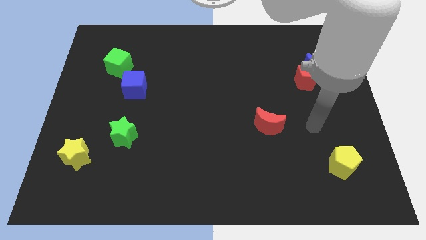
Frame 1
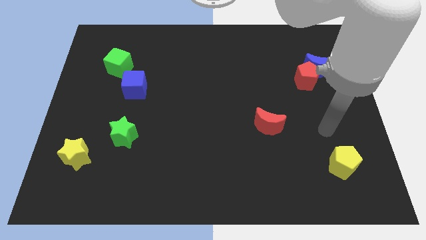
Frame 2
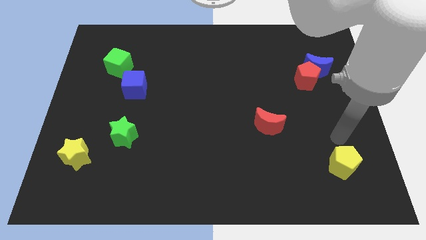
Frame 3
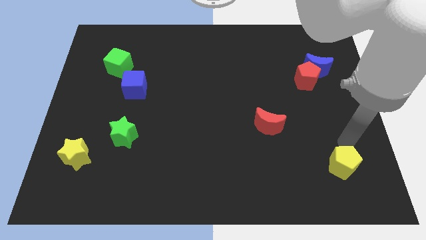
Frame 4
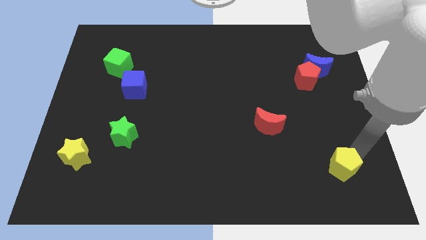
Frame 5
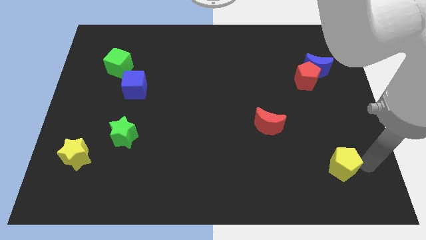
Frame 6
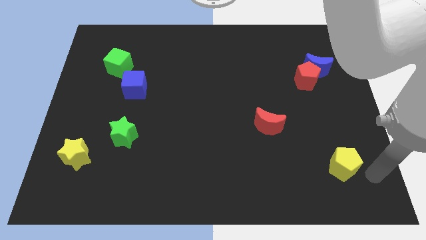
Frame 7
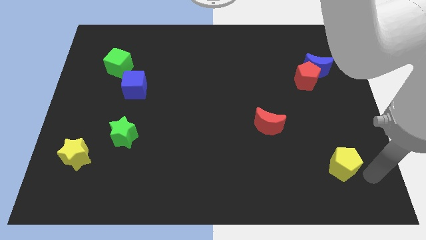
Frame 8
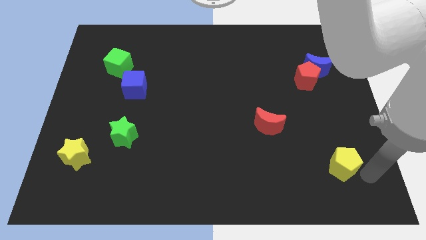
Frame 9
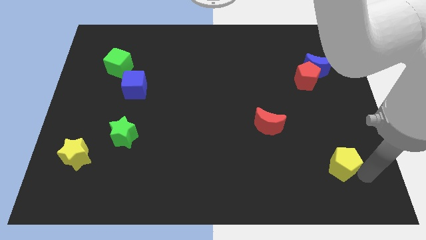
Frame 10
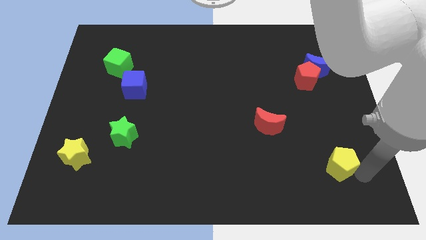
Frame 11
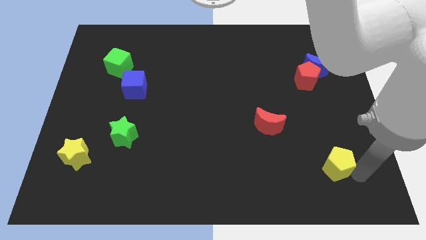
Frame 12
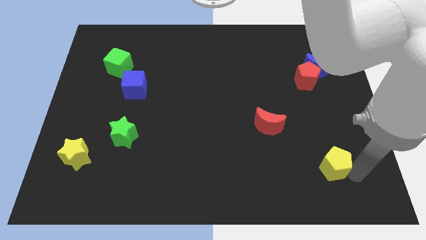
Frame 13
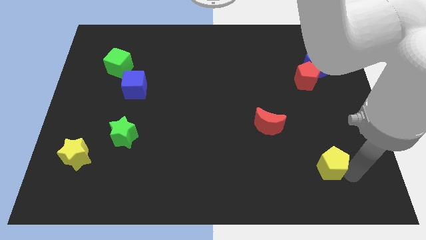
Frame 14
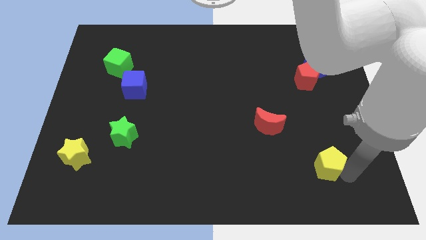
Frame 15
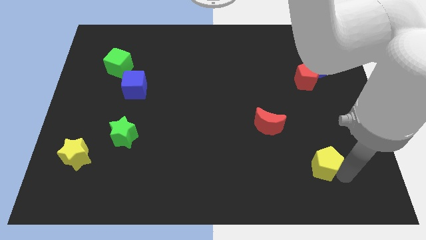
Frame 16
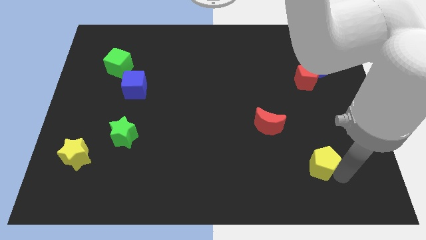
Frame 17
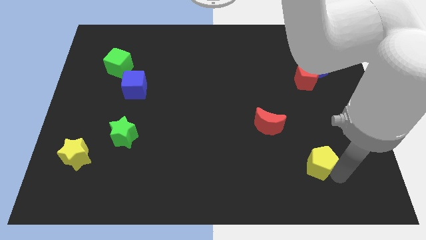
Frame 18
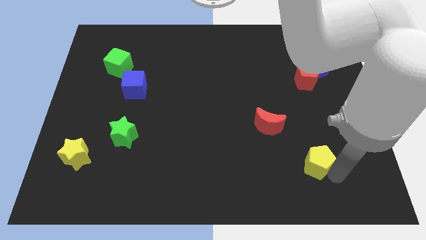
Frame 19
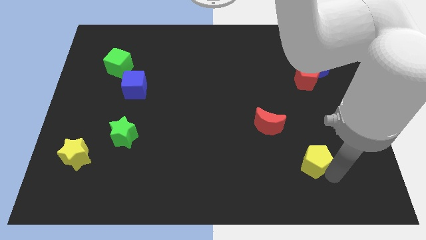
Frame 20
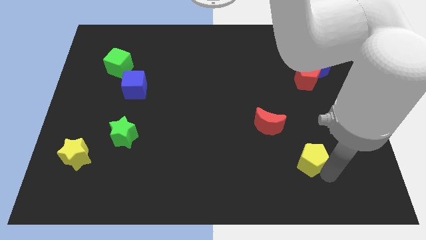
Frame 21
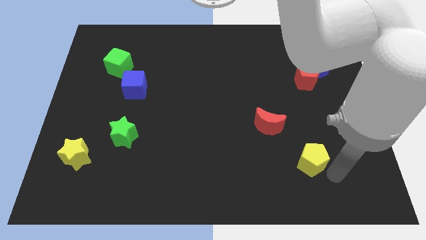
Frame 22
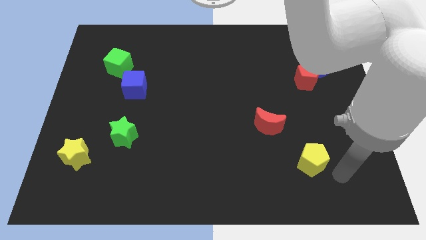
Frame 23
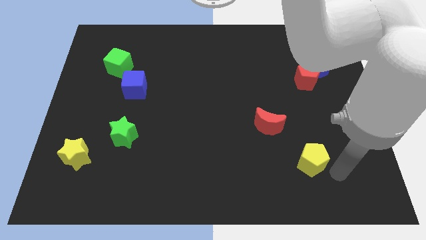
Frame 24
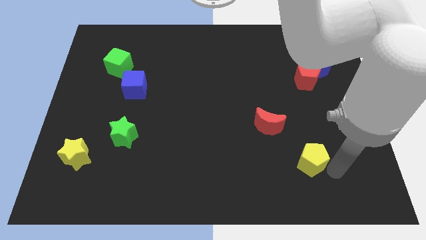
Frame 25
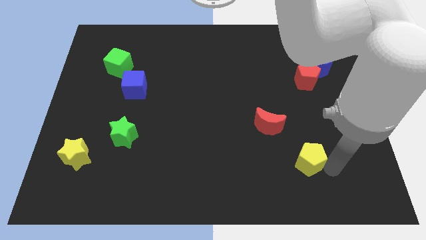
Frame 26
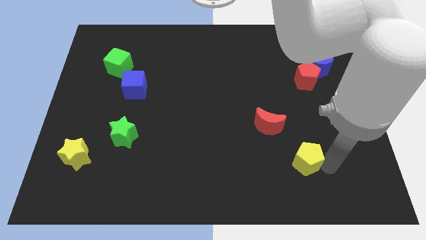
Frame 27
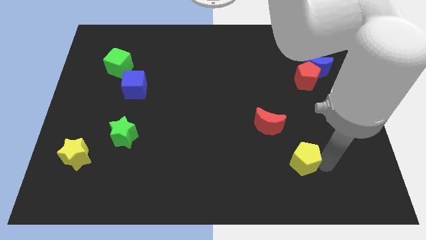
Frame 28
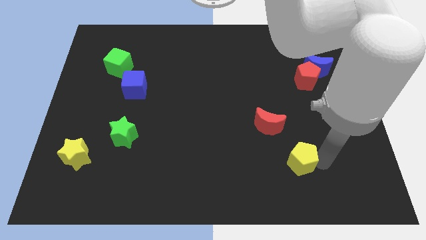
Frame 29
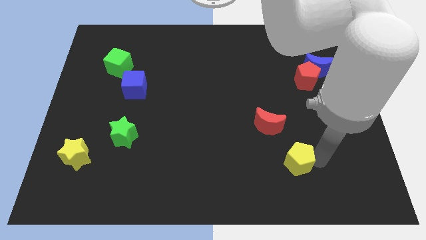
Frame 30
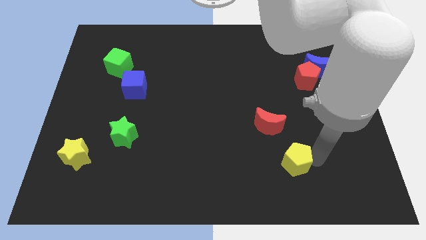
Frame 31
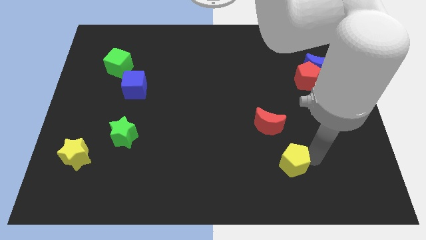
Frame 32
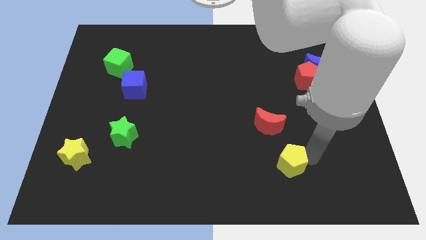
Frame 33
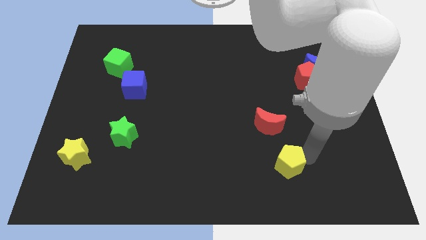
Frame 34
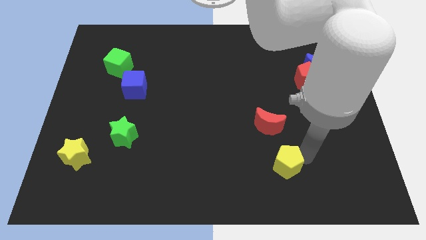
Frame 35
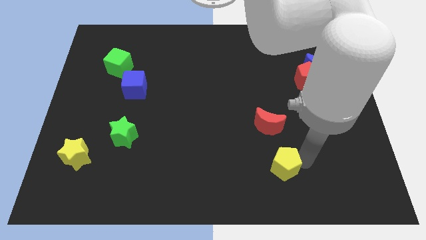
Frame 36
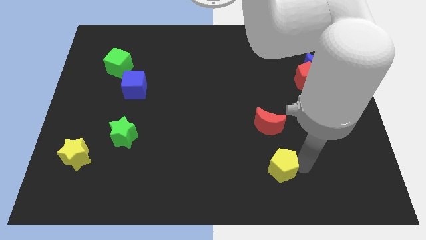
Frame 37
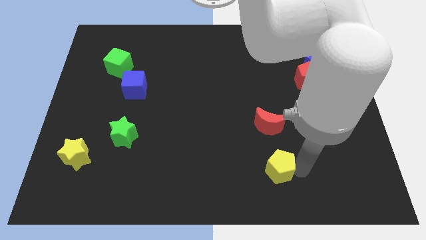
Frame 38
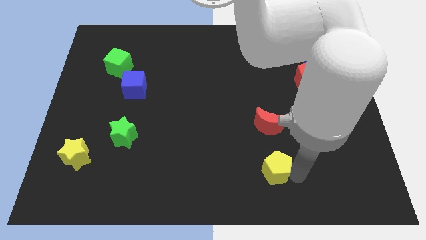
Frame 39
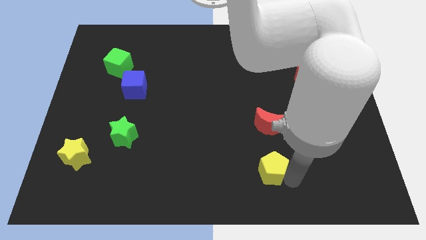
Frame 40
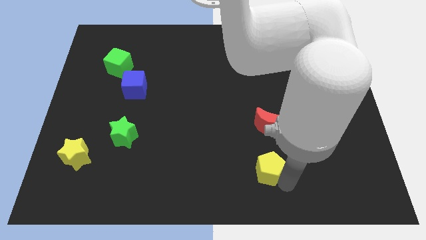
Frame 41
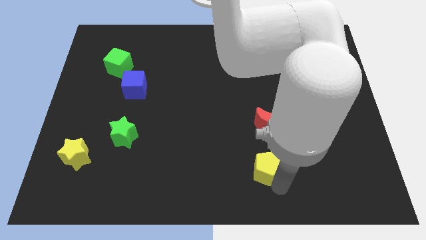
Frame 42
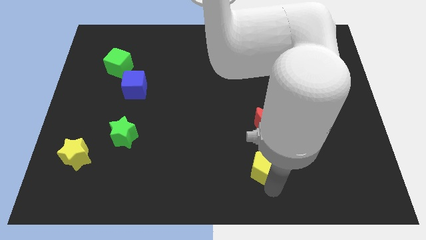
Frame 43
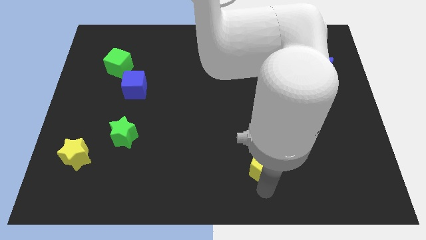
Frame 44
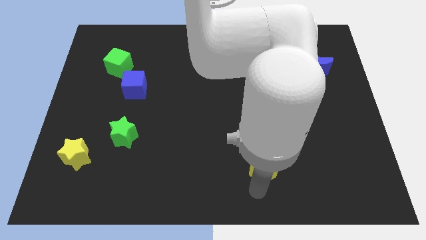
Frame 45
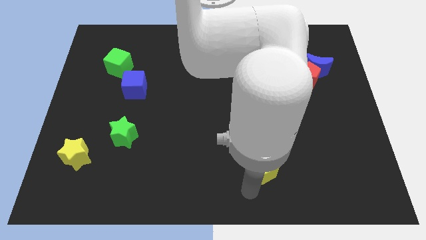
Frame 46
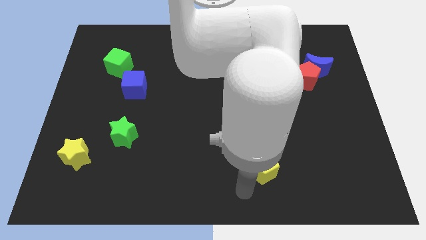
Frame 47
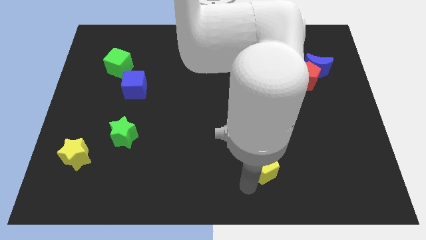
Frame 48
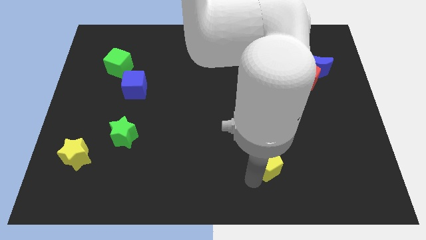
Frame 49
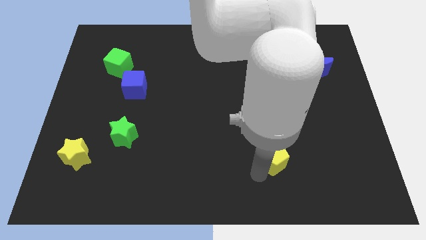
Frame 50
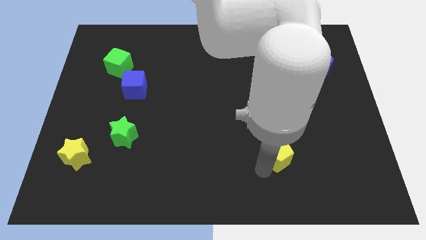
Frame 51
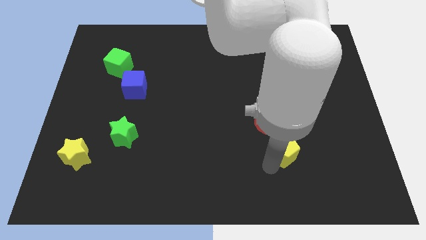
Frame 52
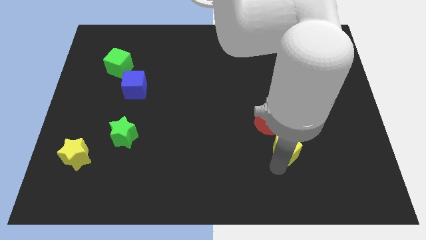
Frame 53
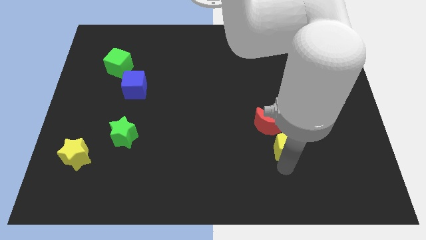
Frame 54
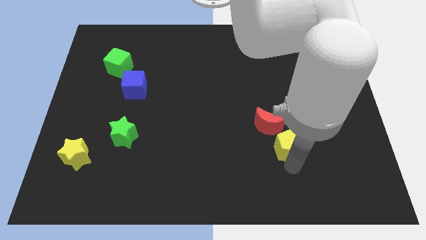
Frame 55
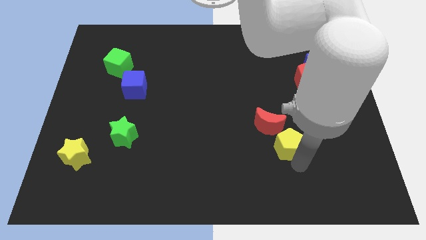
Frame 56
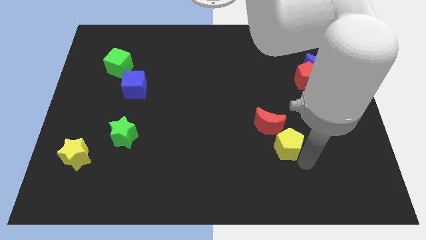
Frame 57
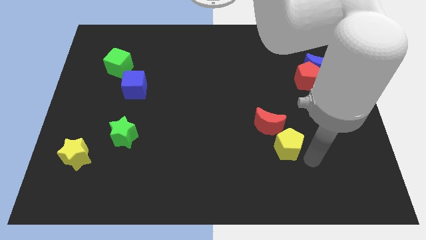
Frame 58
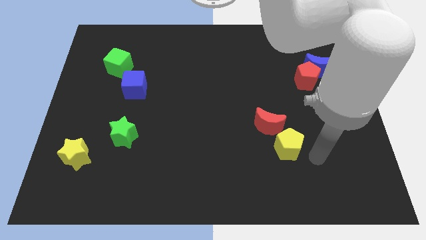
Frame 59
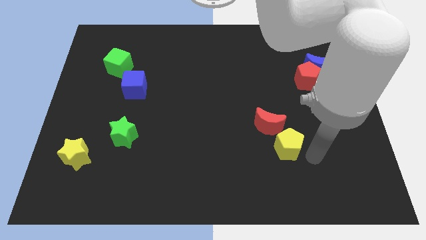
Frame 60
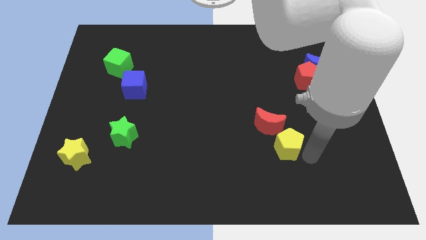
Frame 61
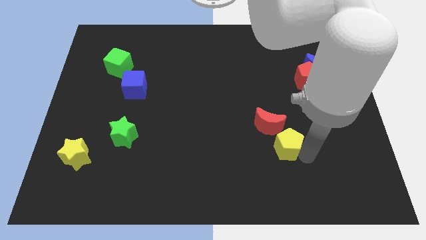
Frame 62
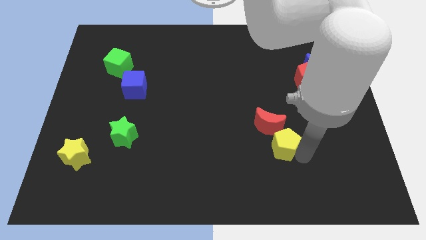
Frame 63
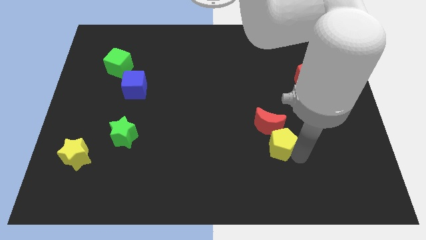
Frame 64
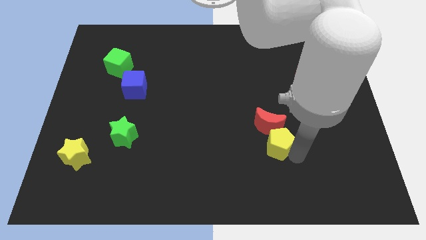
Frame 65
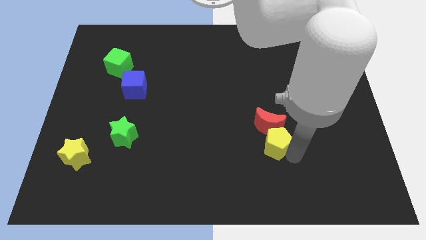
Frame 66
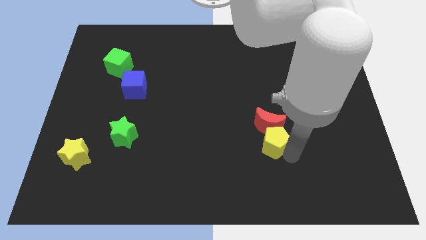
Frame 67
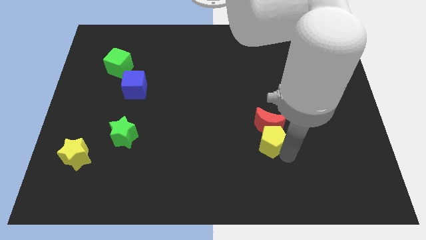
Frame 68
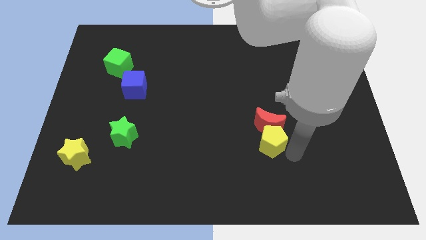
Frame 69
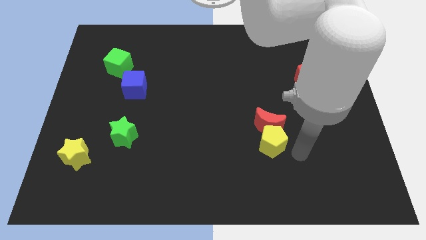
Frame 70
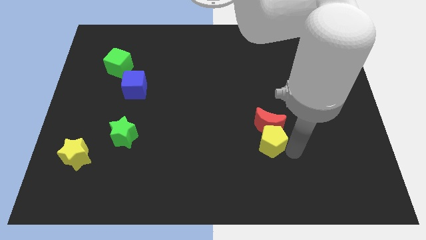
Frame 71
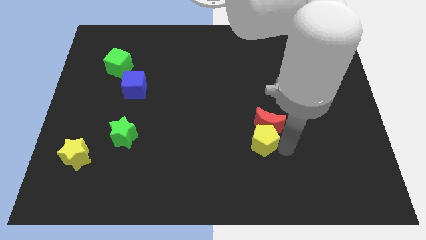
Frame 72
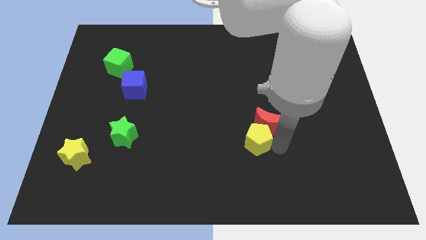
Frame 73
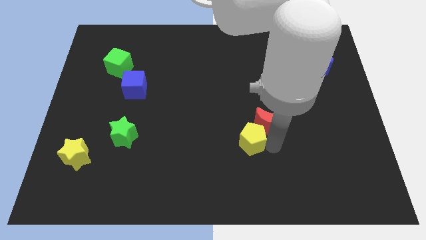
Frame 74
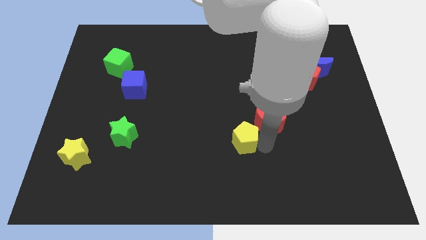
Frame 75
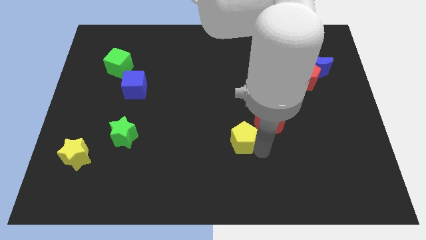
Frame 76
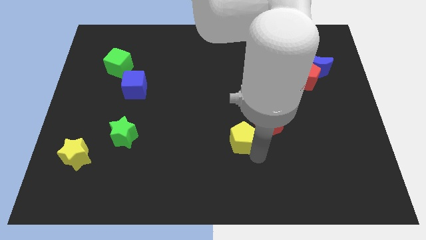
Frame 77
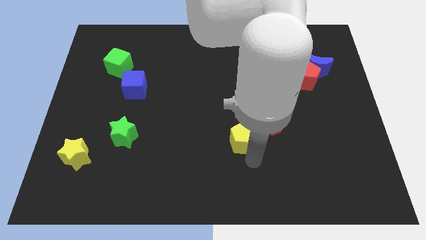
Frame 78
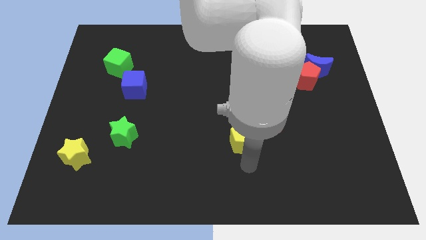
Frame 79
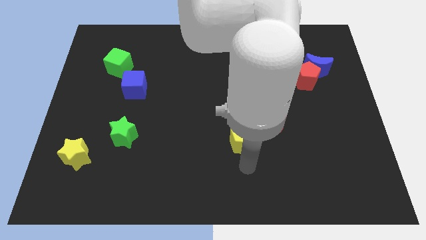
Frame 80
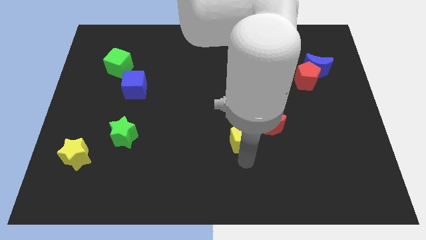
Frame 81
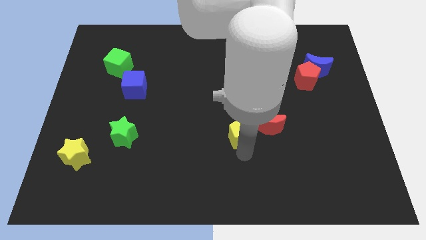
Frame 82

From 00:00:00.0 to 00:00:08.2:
put the yellow pentagon to the middle
